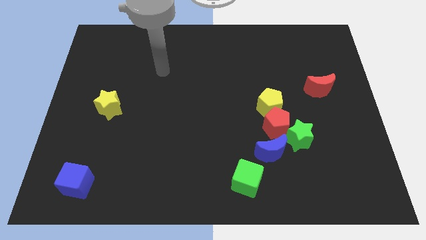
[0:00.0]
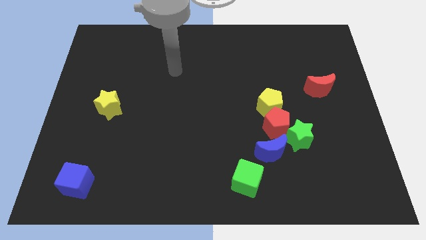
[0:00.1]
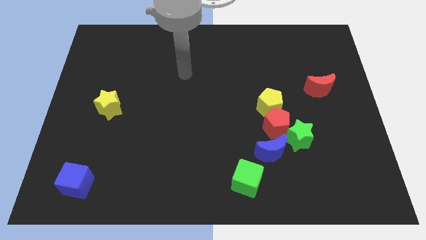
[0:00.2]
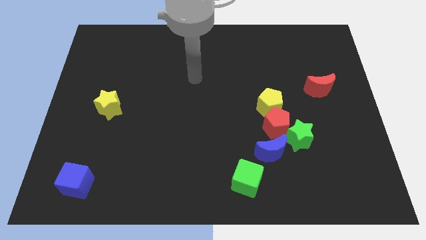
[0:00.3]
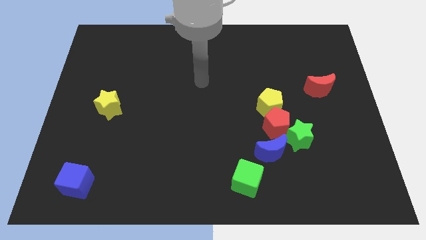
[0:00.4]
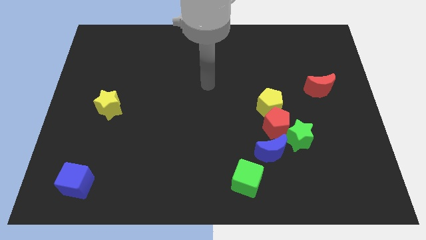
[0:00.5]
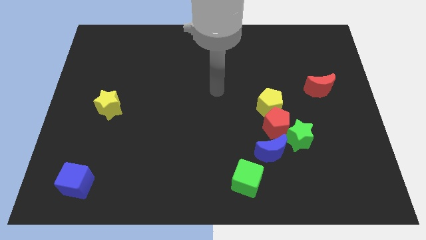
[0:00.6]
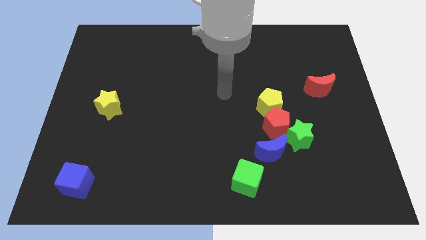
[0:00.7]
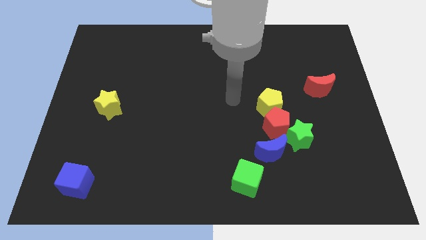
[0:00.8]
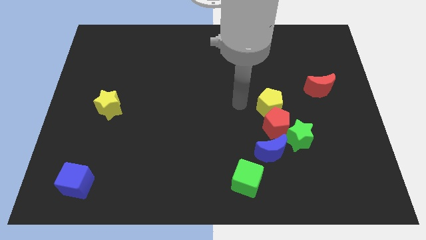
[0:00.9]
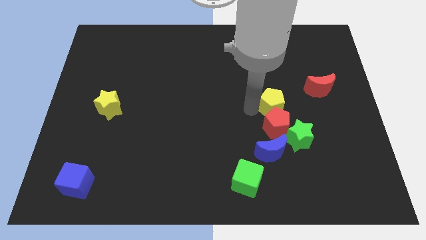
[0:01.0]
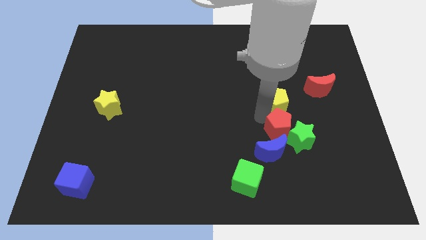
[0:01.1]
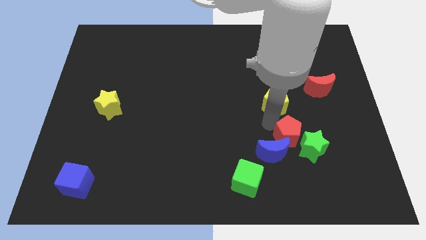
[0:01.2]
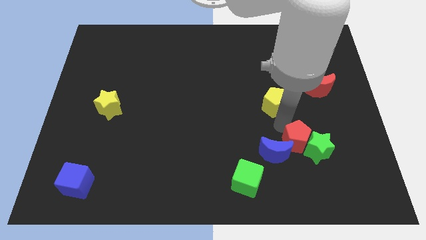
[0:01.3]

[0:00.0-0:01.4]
move the yellow pentagon away from the red pentagon

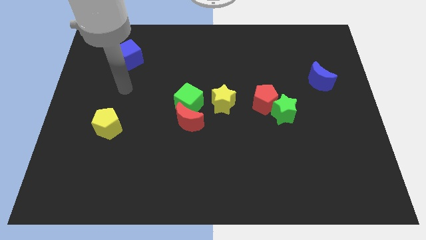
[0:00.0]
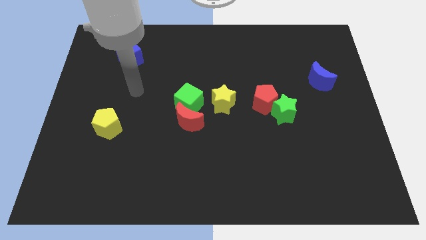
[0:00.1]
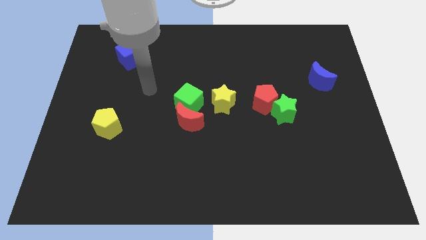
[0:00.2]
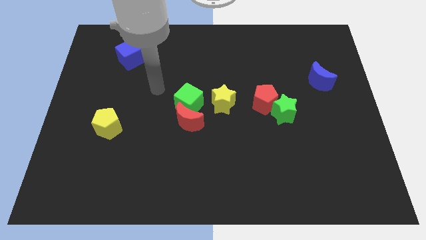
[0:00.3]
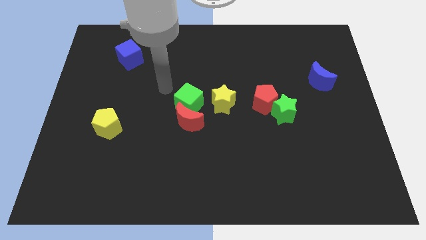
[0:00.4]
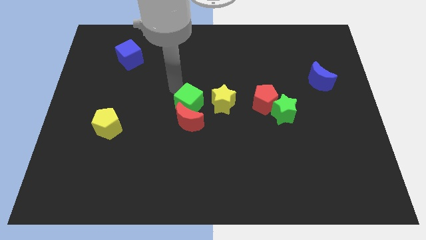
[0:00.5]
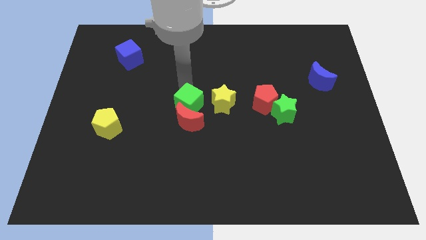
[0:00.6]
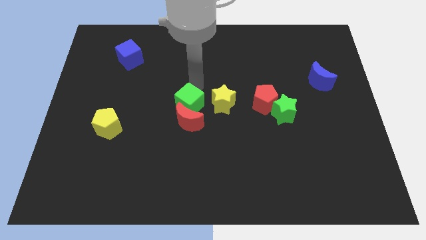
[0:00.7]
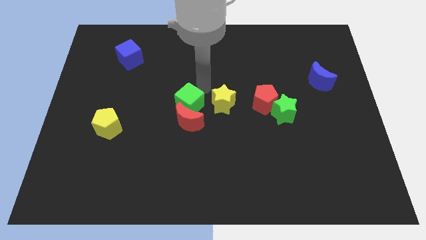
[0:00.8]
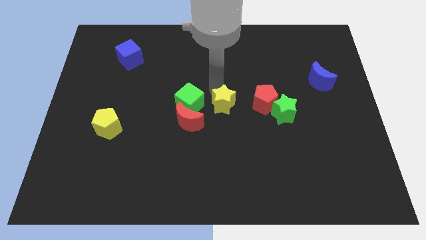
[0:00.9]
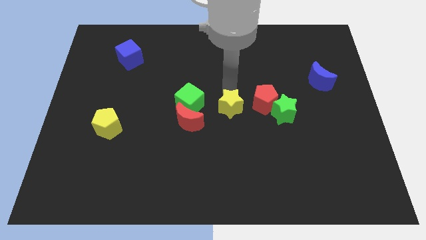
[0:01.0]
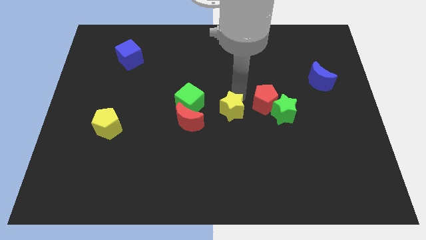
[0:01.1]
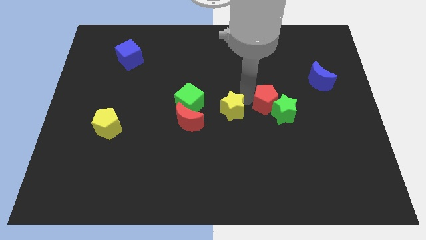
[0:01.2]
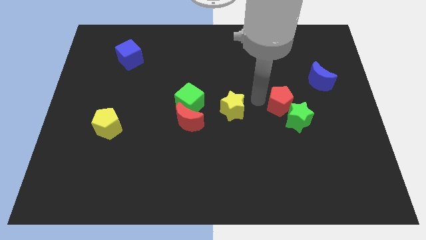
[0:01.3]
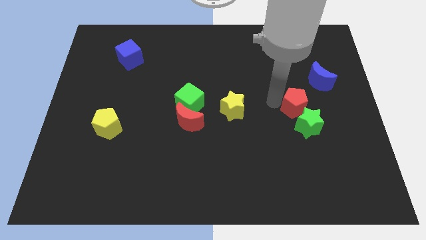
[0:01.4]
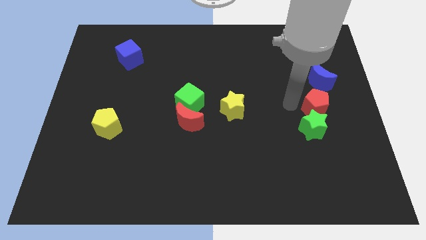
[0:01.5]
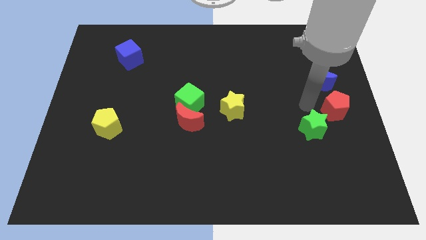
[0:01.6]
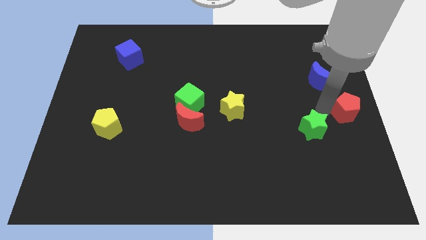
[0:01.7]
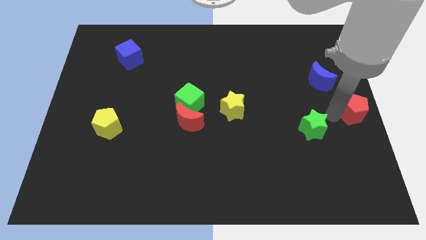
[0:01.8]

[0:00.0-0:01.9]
pull the green star apart from the red pentagon

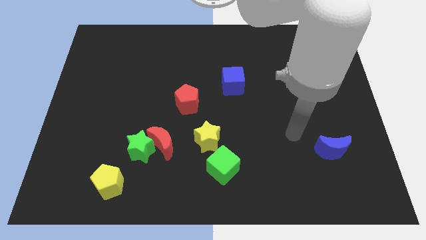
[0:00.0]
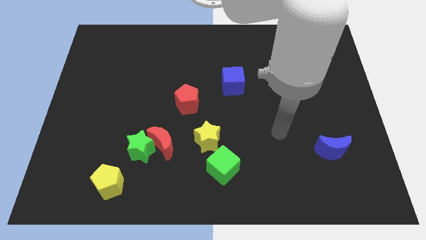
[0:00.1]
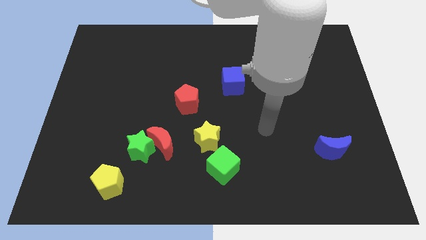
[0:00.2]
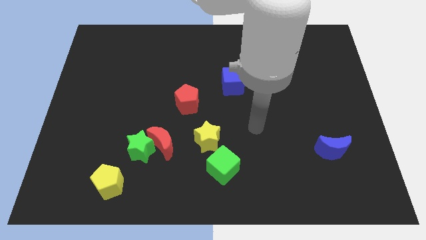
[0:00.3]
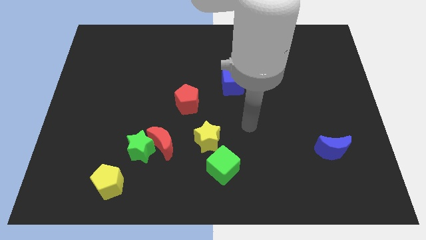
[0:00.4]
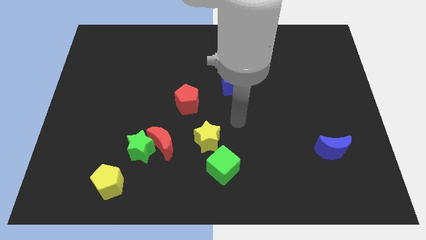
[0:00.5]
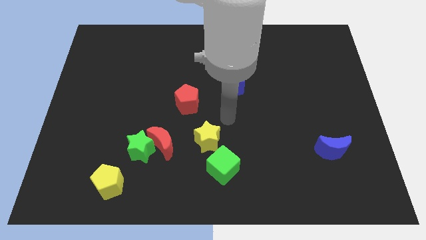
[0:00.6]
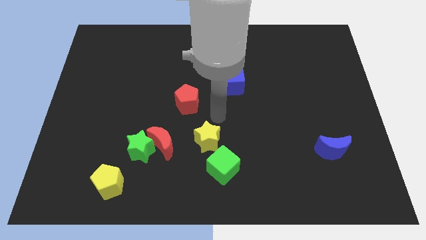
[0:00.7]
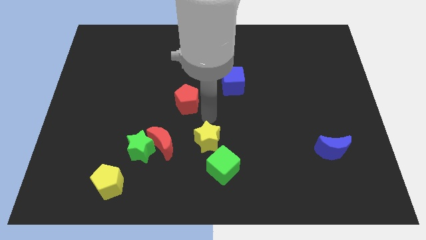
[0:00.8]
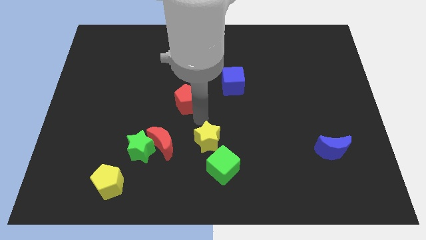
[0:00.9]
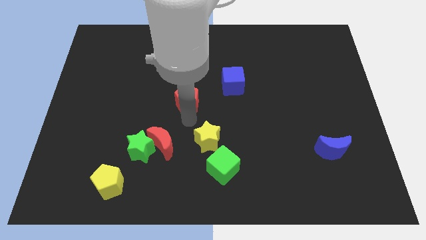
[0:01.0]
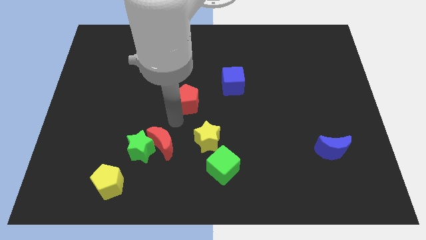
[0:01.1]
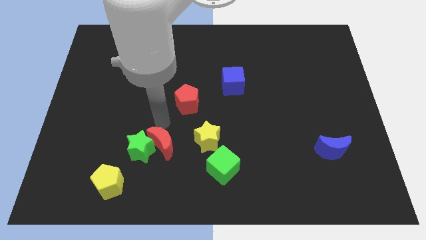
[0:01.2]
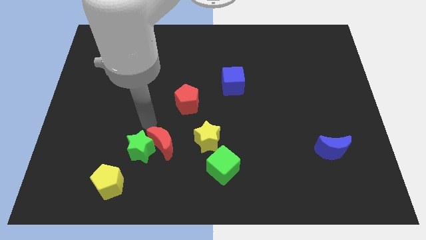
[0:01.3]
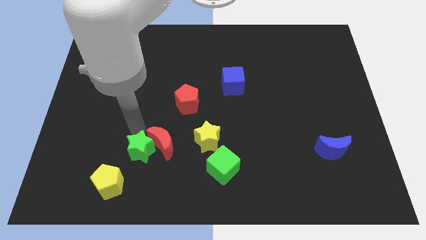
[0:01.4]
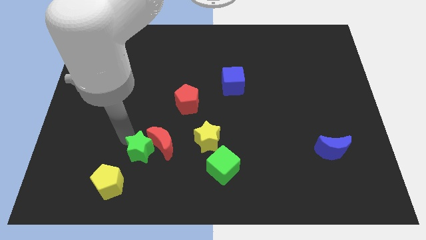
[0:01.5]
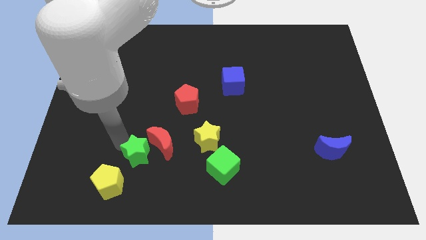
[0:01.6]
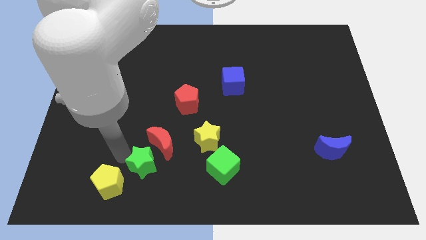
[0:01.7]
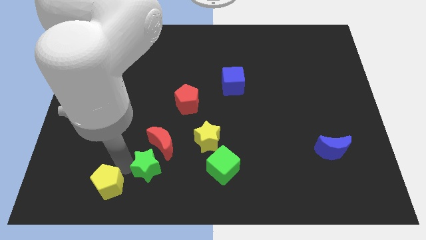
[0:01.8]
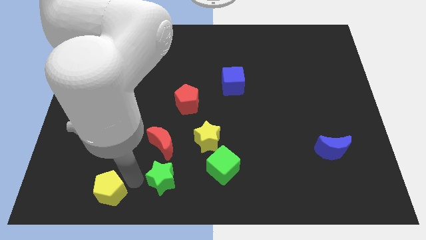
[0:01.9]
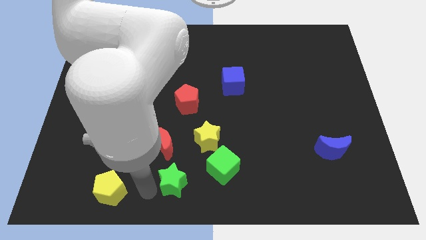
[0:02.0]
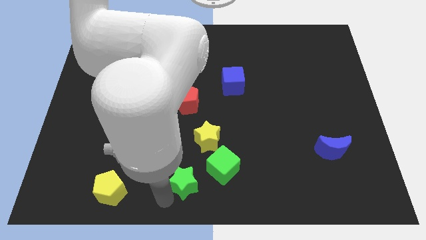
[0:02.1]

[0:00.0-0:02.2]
separate the green star from the red moon and yellow pentagon

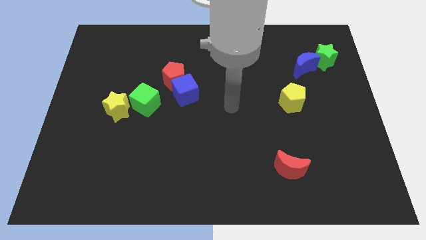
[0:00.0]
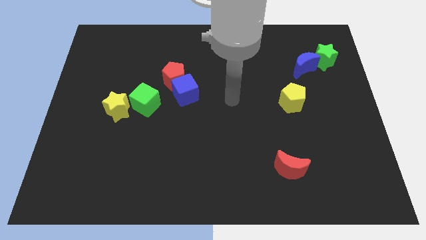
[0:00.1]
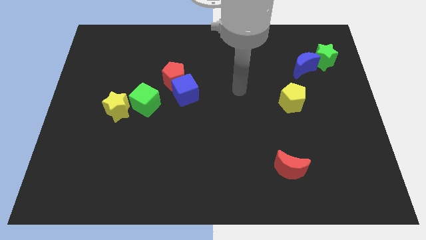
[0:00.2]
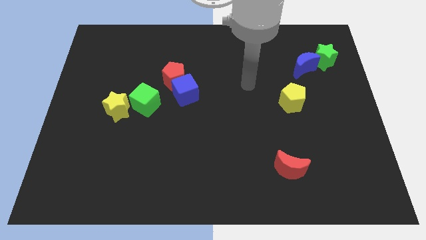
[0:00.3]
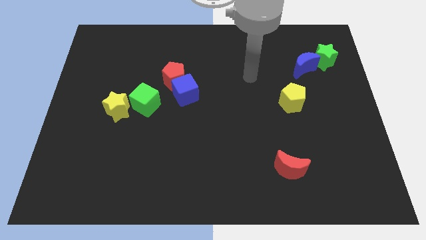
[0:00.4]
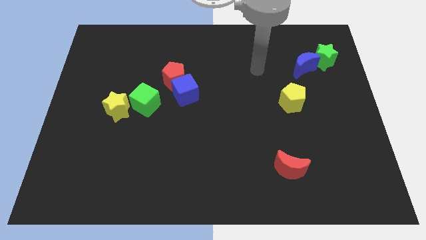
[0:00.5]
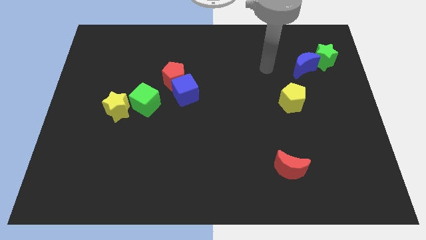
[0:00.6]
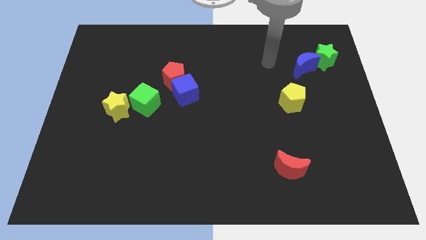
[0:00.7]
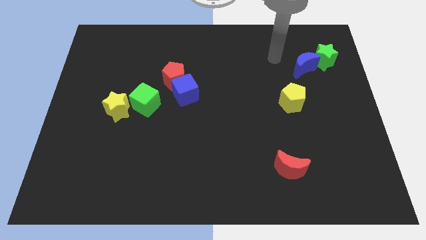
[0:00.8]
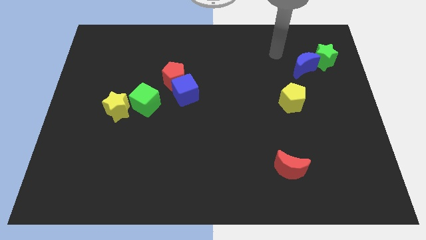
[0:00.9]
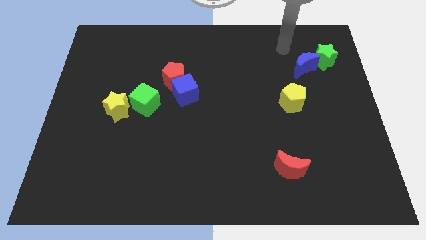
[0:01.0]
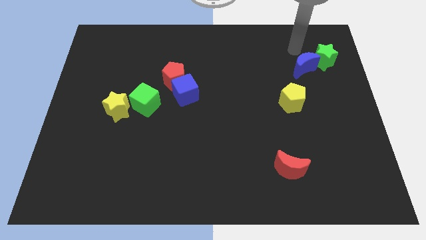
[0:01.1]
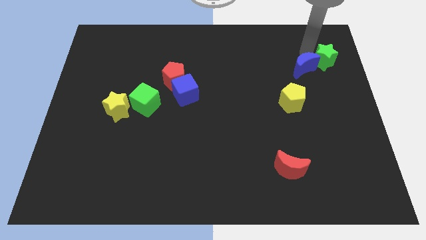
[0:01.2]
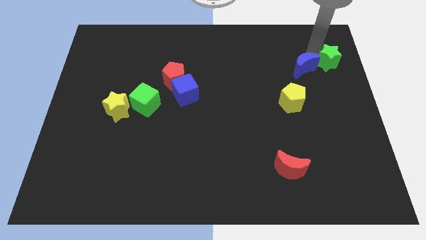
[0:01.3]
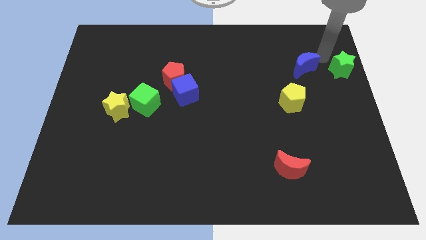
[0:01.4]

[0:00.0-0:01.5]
pull the blue moon apart from the green star

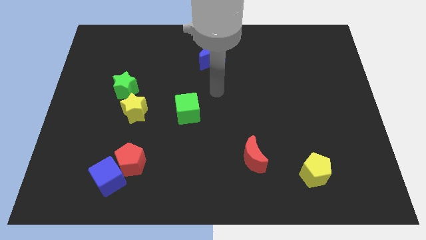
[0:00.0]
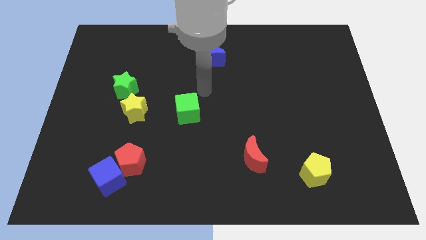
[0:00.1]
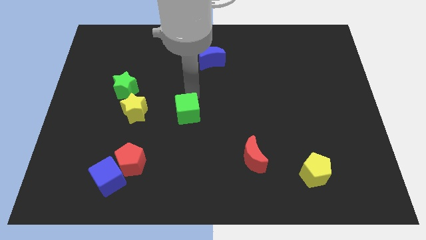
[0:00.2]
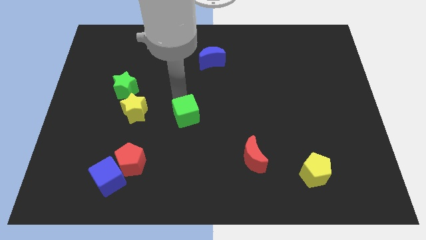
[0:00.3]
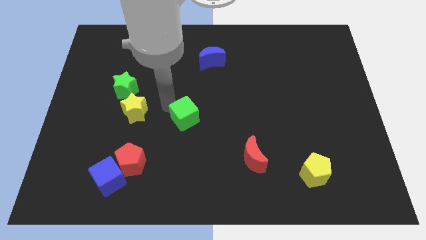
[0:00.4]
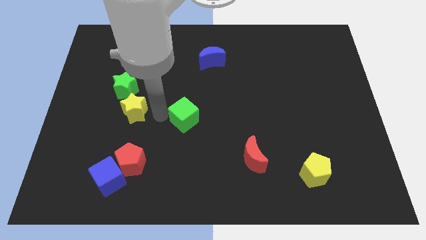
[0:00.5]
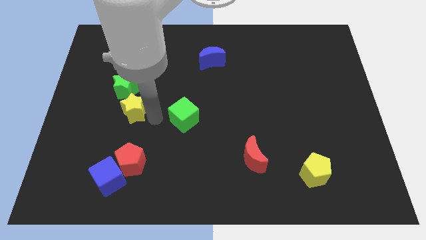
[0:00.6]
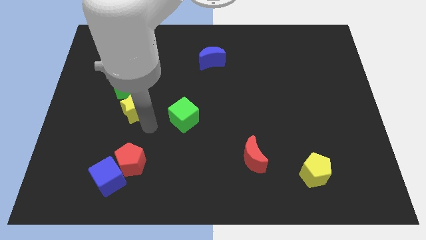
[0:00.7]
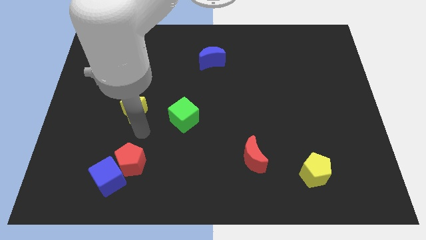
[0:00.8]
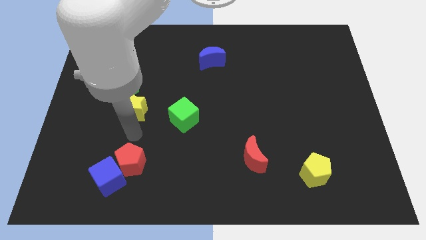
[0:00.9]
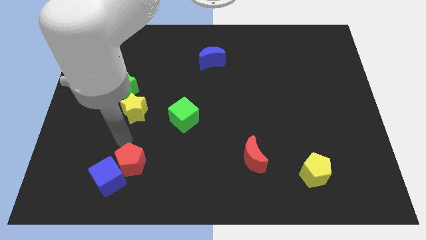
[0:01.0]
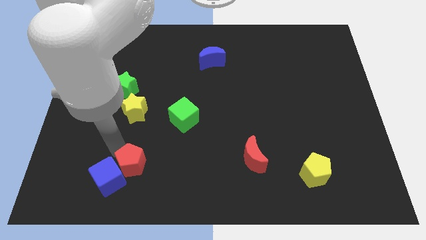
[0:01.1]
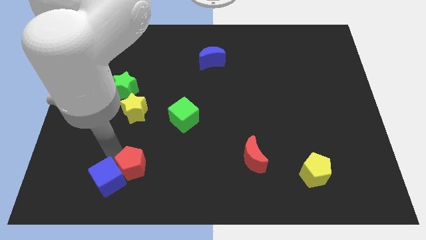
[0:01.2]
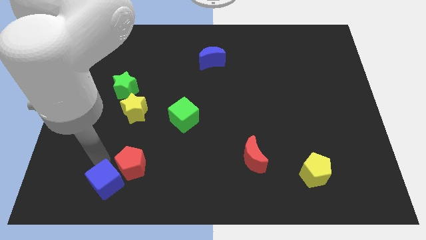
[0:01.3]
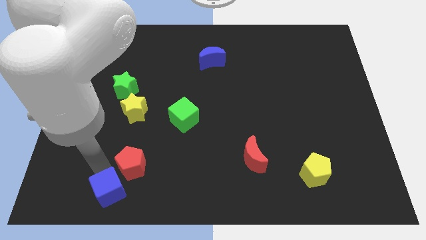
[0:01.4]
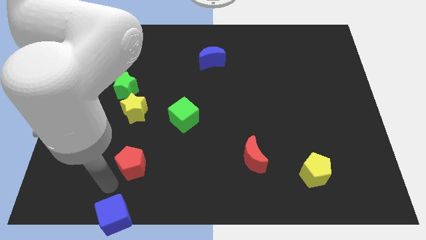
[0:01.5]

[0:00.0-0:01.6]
move the red pentagon away from the blue cube

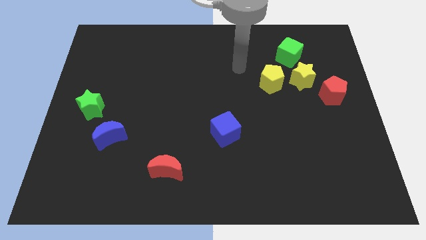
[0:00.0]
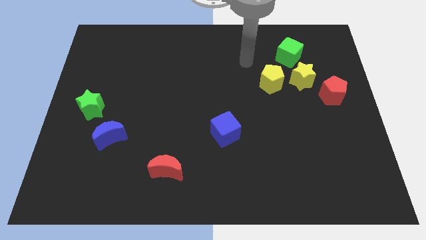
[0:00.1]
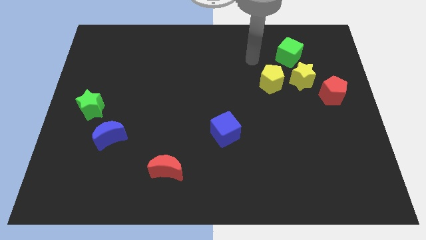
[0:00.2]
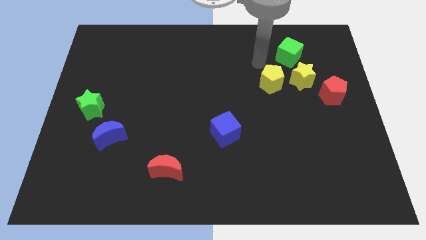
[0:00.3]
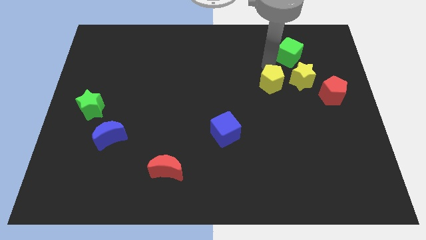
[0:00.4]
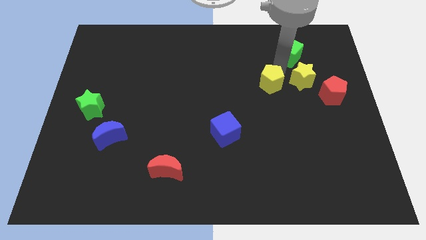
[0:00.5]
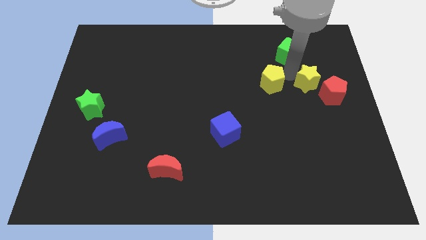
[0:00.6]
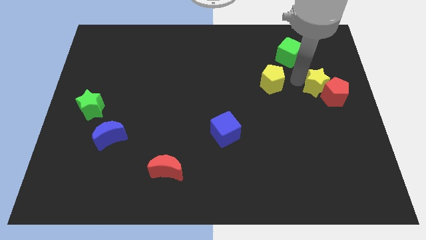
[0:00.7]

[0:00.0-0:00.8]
move the yellow pentagon away from the yellow star

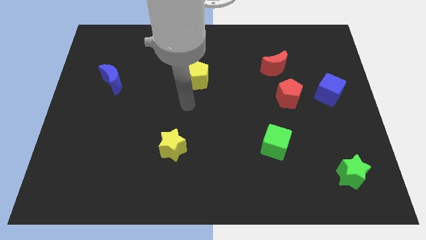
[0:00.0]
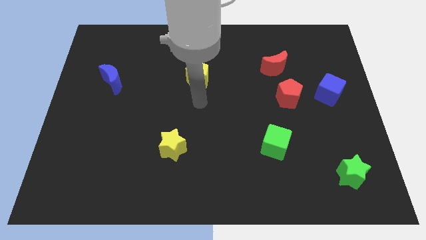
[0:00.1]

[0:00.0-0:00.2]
pull the red moon apart from the red pentagon
